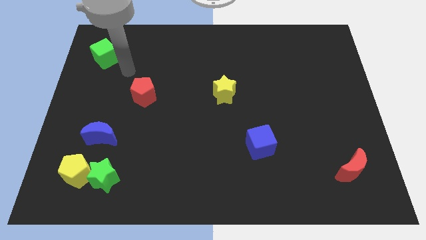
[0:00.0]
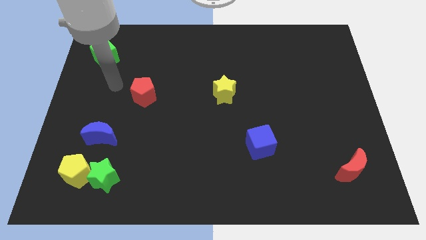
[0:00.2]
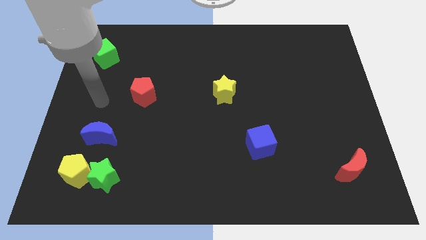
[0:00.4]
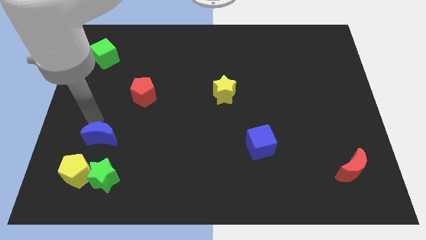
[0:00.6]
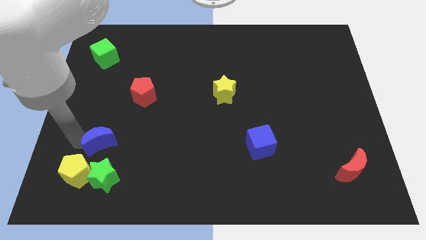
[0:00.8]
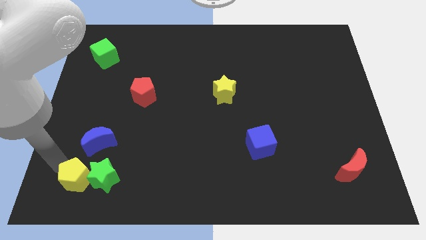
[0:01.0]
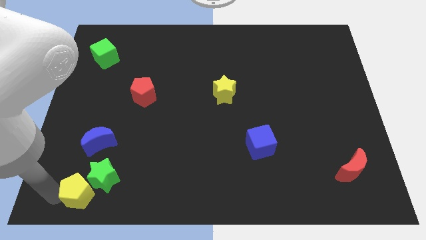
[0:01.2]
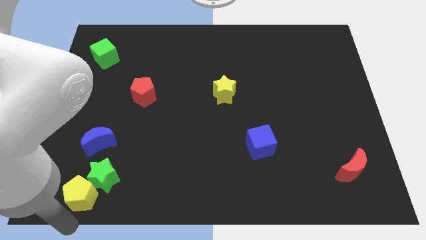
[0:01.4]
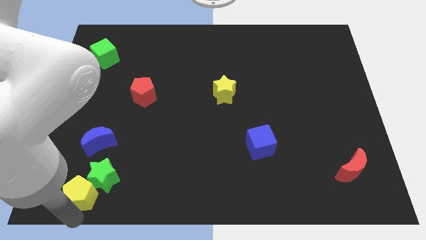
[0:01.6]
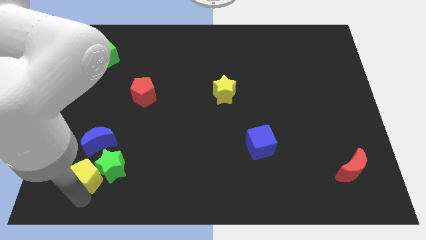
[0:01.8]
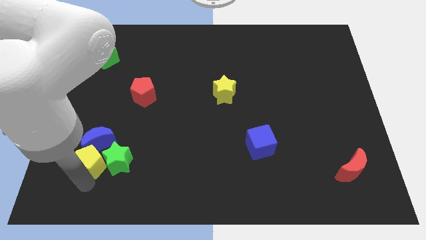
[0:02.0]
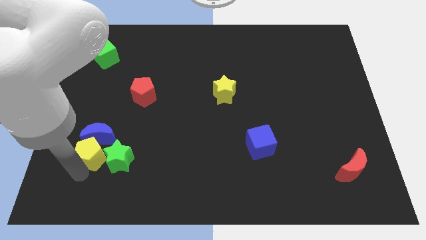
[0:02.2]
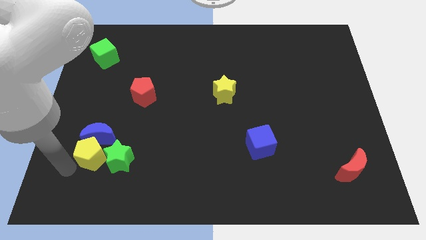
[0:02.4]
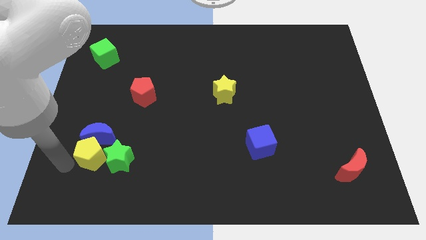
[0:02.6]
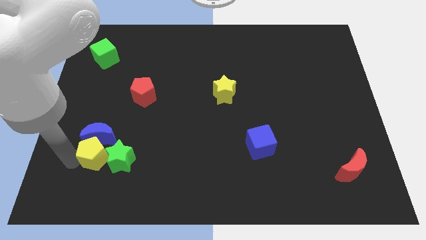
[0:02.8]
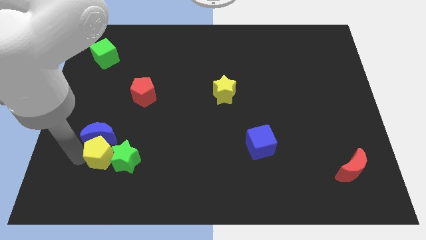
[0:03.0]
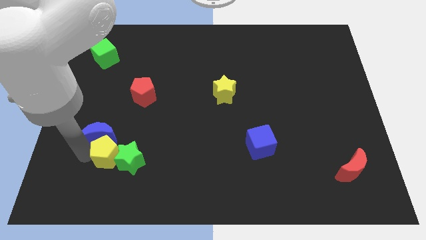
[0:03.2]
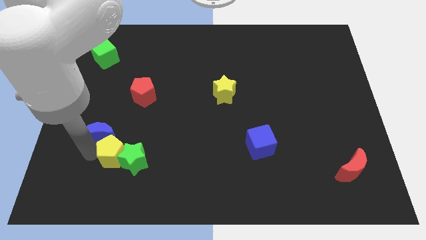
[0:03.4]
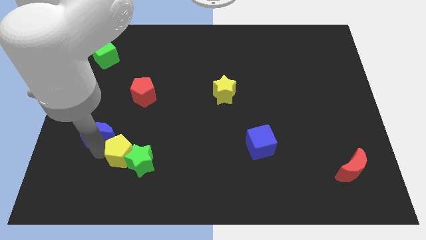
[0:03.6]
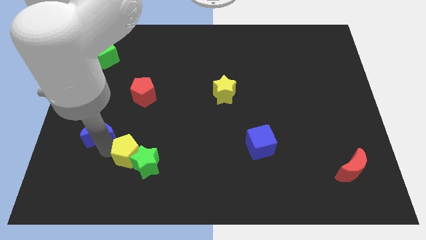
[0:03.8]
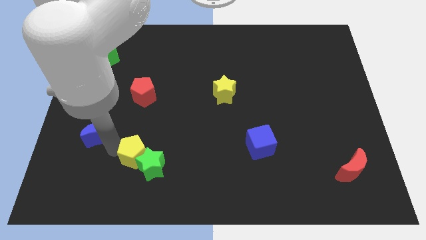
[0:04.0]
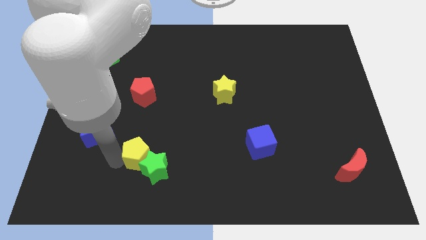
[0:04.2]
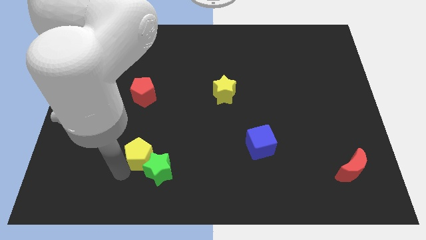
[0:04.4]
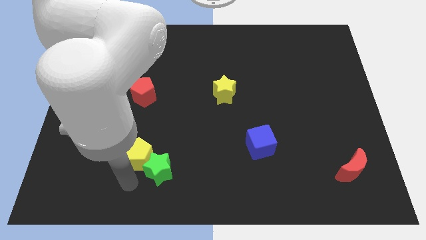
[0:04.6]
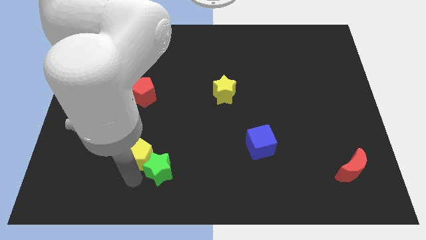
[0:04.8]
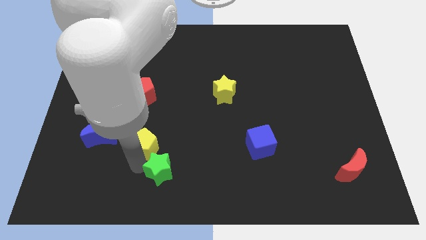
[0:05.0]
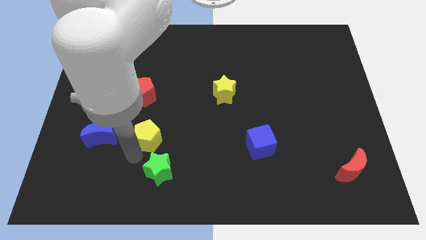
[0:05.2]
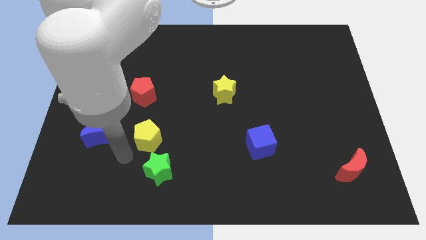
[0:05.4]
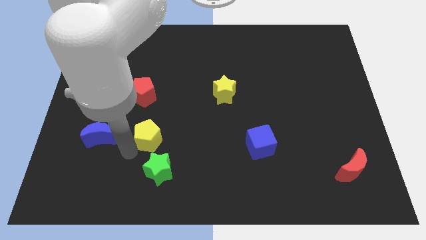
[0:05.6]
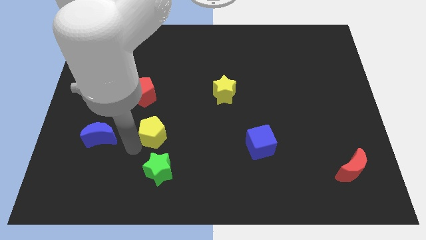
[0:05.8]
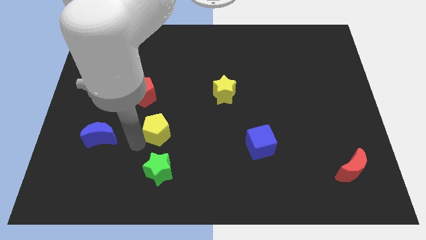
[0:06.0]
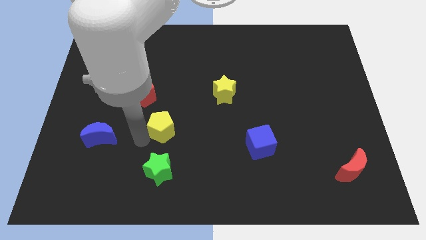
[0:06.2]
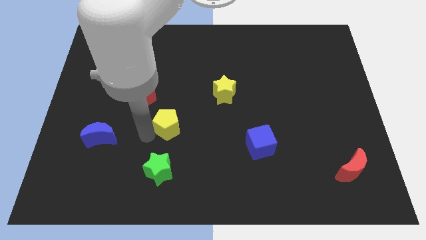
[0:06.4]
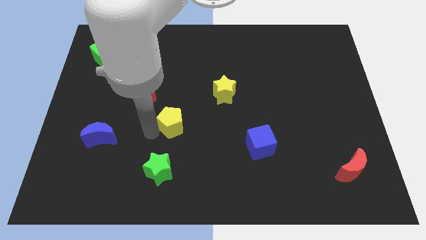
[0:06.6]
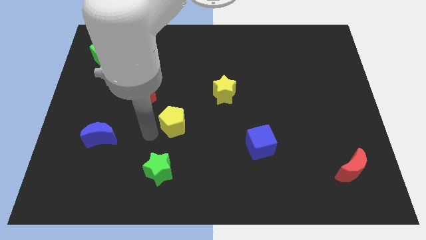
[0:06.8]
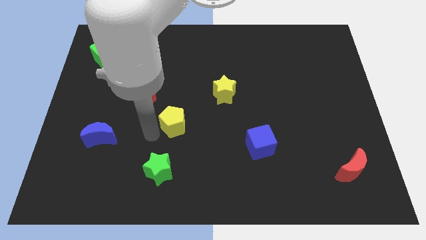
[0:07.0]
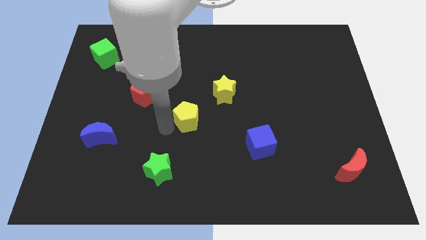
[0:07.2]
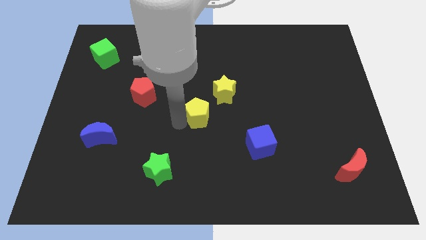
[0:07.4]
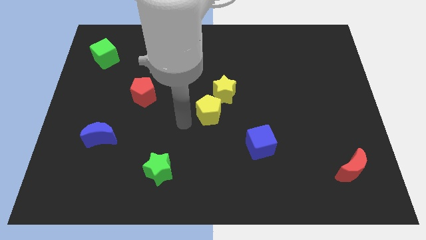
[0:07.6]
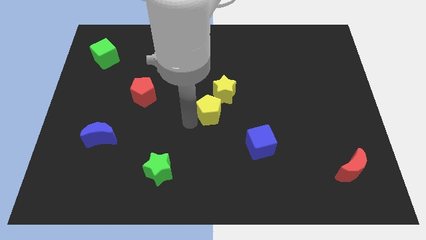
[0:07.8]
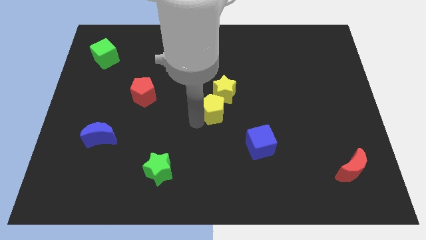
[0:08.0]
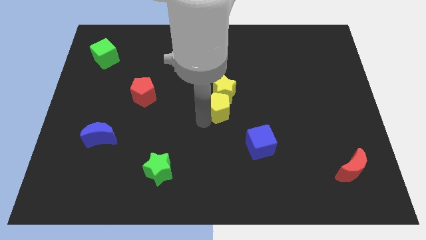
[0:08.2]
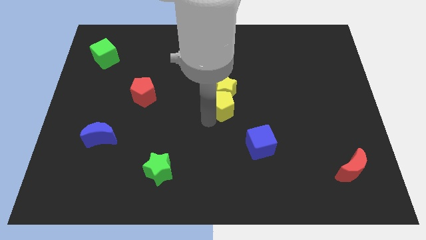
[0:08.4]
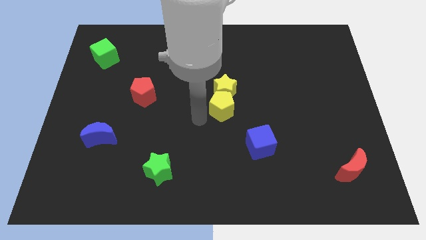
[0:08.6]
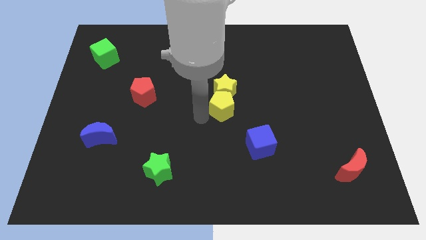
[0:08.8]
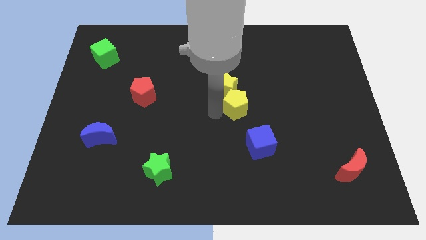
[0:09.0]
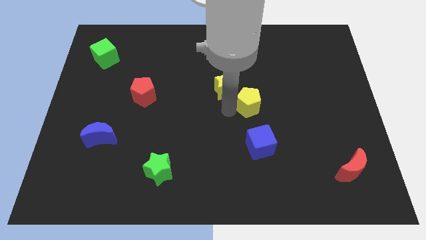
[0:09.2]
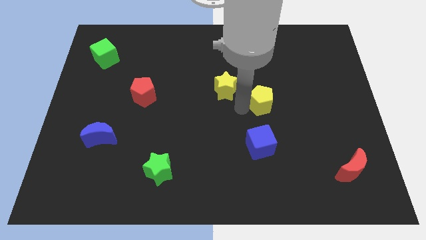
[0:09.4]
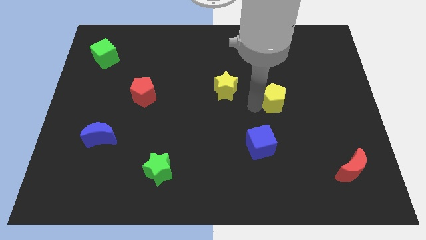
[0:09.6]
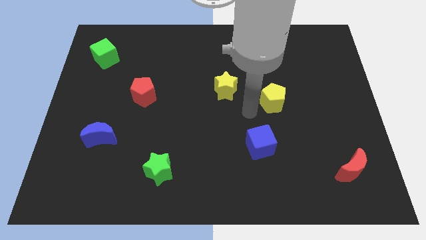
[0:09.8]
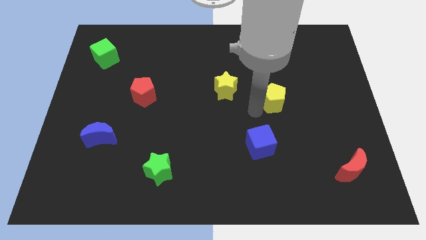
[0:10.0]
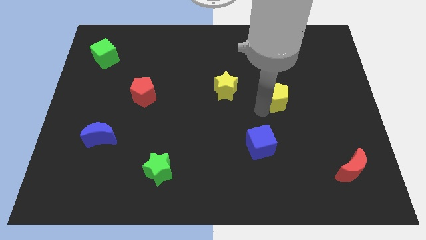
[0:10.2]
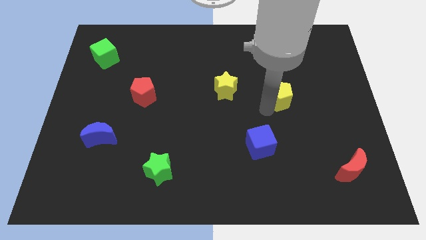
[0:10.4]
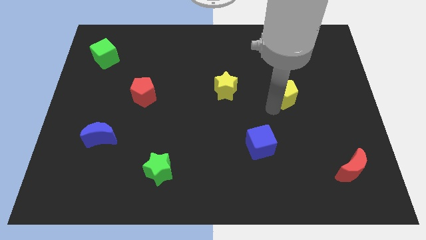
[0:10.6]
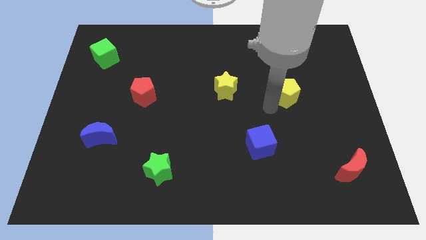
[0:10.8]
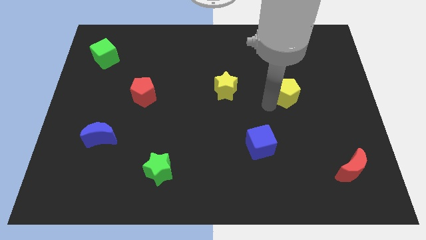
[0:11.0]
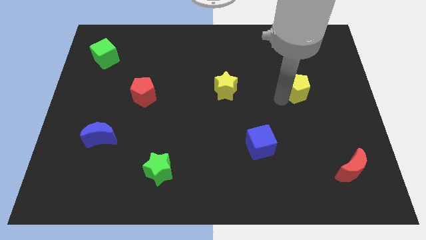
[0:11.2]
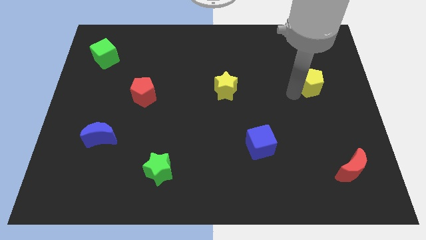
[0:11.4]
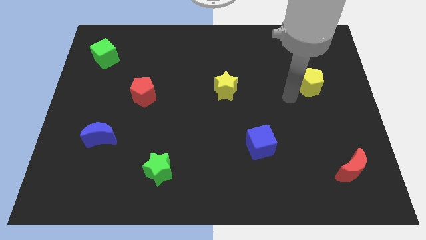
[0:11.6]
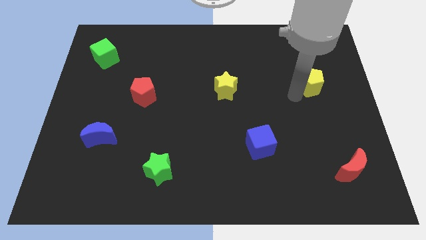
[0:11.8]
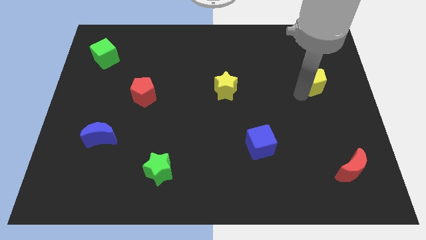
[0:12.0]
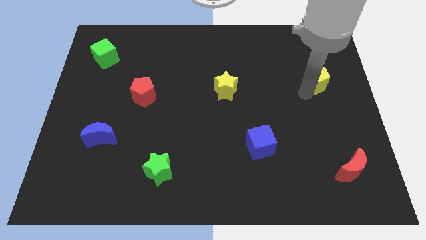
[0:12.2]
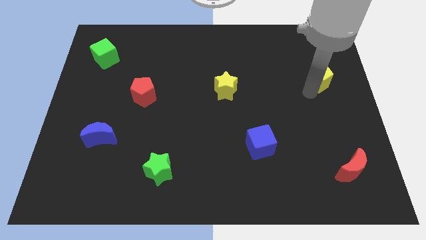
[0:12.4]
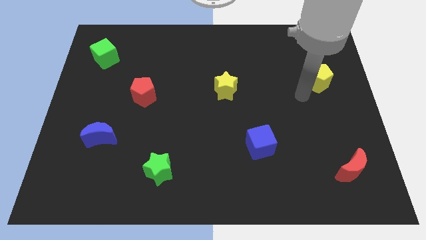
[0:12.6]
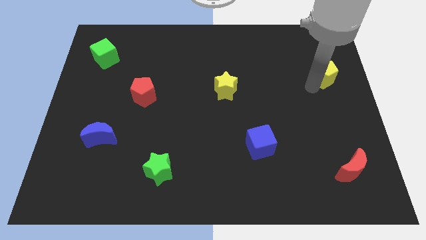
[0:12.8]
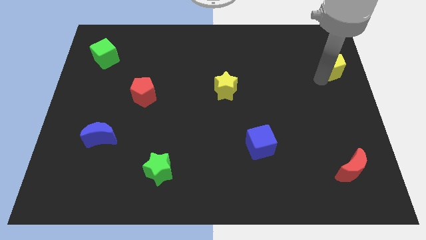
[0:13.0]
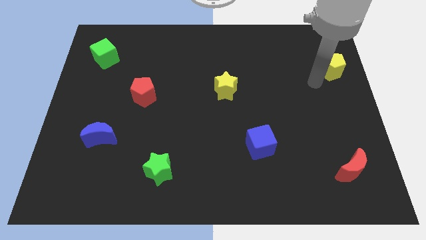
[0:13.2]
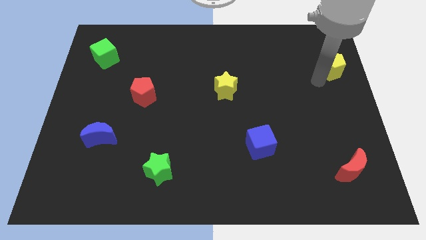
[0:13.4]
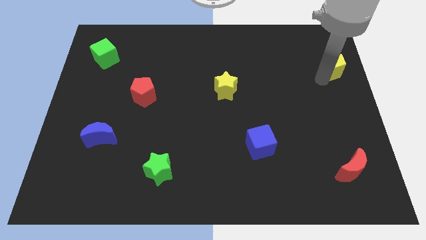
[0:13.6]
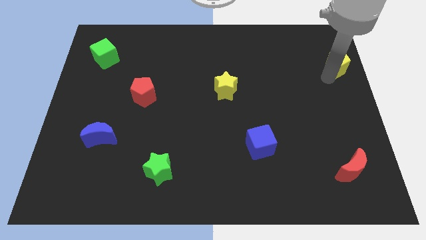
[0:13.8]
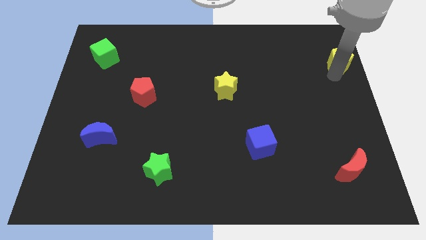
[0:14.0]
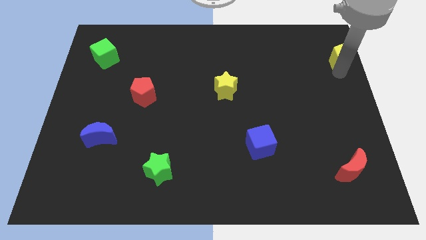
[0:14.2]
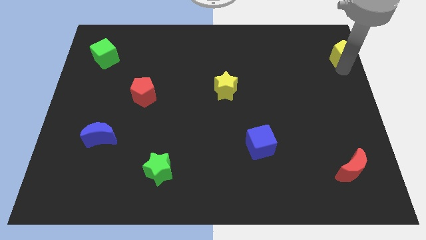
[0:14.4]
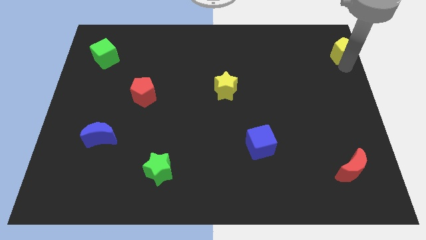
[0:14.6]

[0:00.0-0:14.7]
slide the yellow pentagon to the upper right corner
